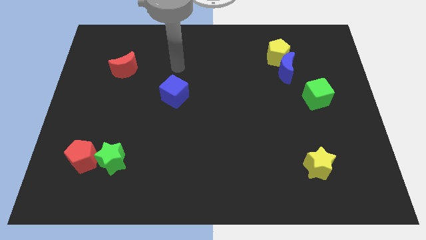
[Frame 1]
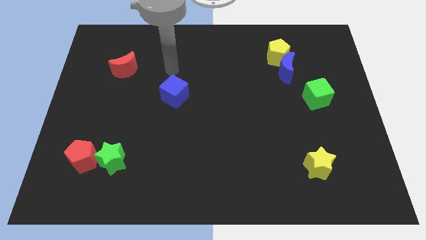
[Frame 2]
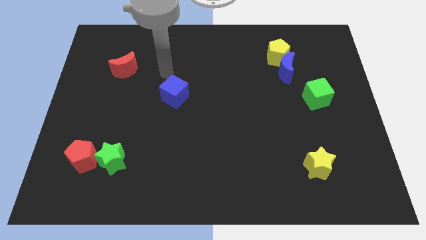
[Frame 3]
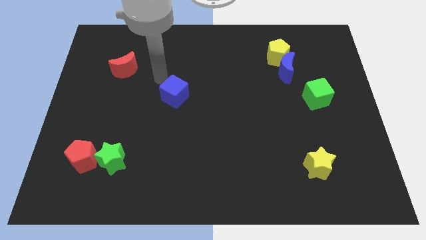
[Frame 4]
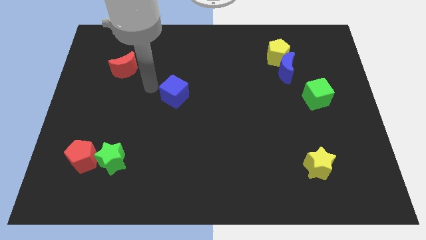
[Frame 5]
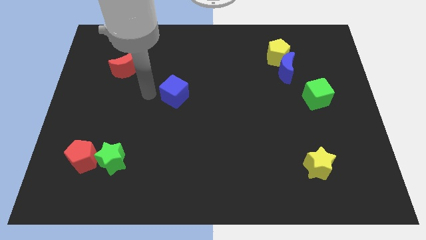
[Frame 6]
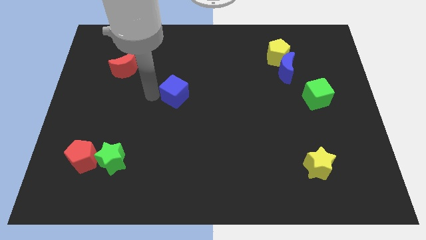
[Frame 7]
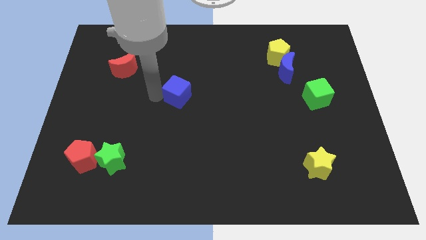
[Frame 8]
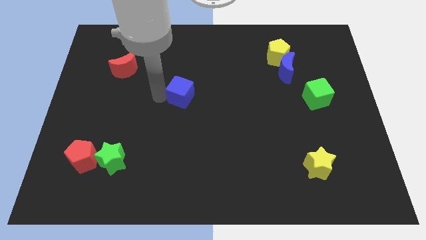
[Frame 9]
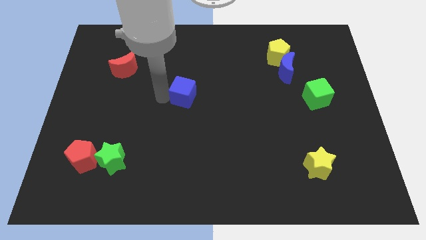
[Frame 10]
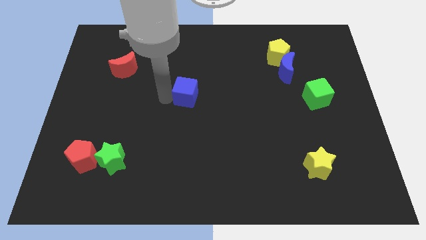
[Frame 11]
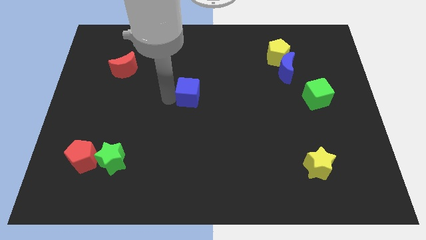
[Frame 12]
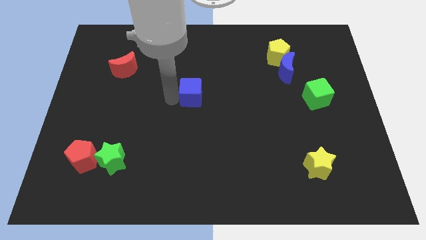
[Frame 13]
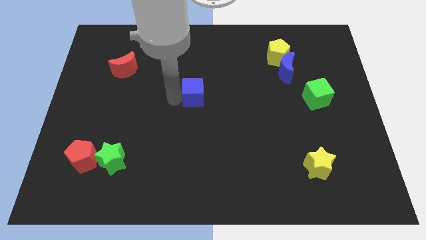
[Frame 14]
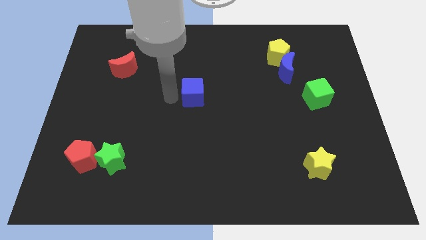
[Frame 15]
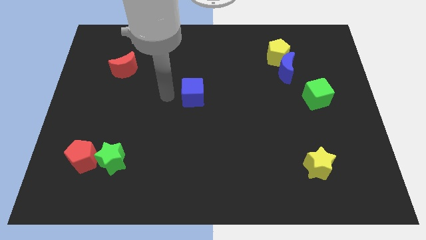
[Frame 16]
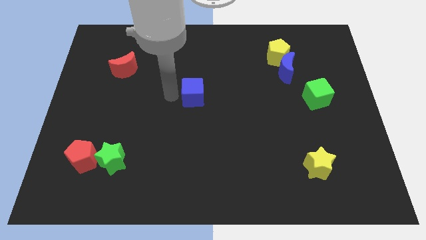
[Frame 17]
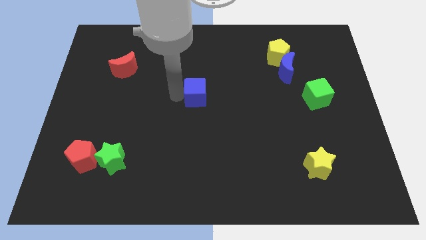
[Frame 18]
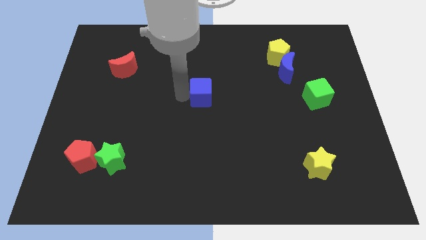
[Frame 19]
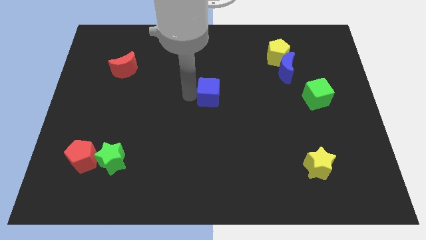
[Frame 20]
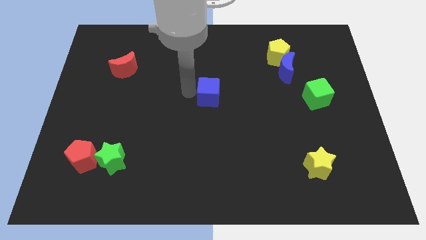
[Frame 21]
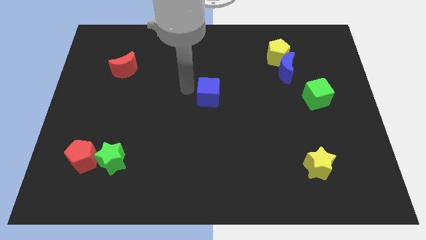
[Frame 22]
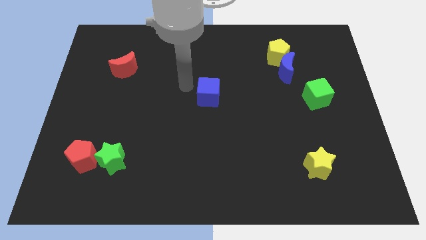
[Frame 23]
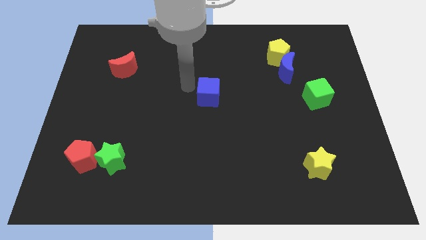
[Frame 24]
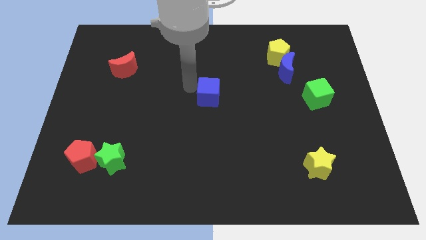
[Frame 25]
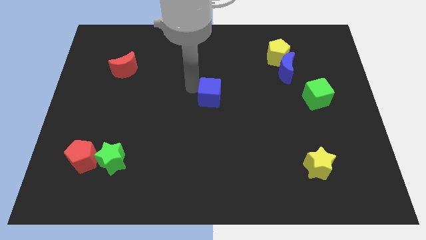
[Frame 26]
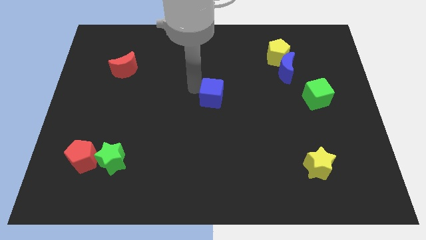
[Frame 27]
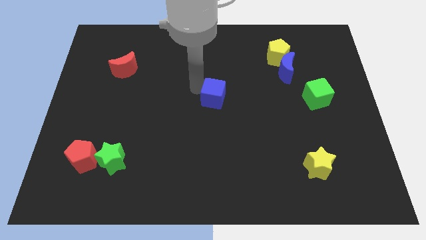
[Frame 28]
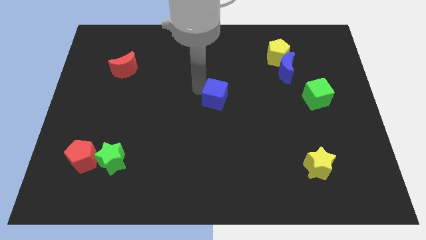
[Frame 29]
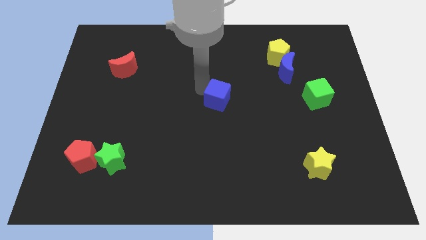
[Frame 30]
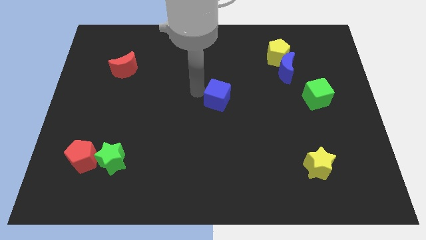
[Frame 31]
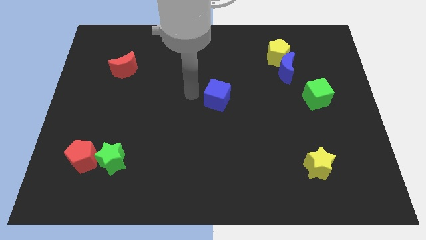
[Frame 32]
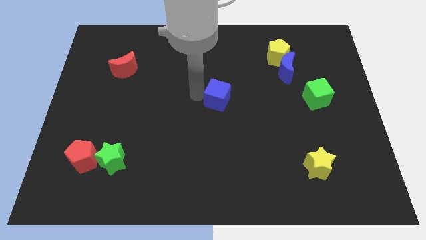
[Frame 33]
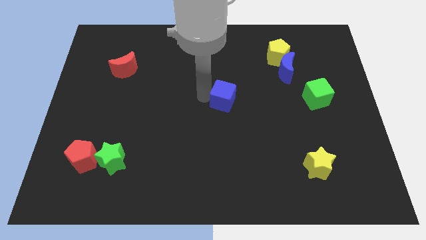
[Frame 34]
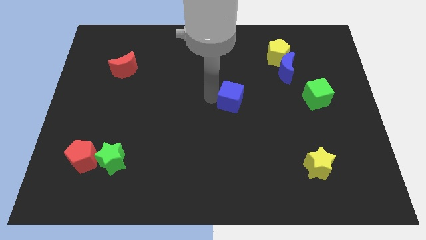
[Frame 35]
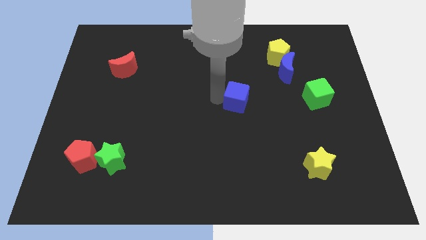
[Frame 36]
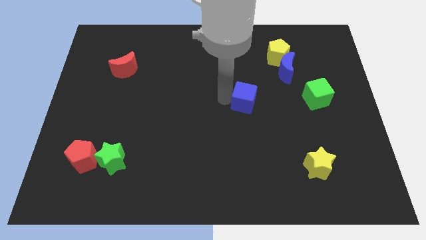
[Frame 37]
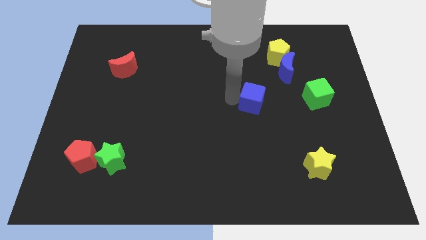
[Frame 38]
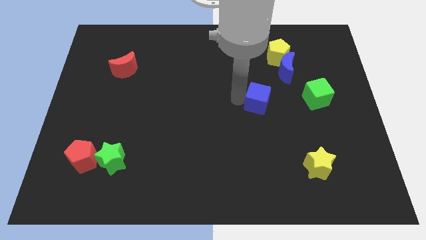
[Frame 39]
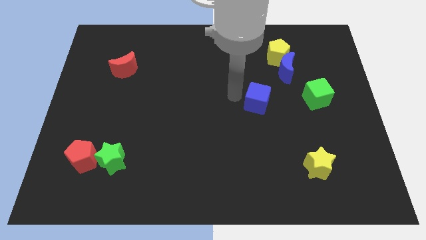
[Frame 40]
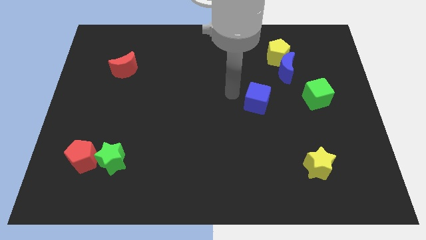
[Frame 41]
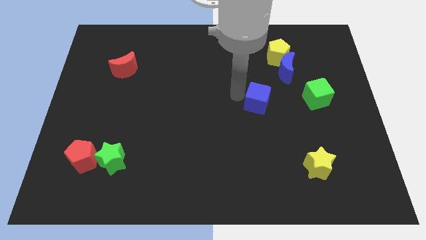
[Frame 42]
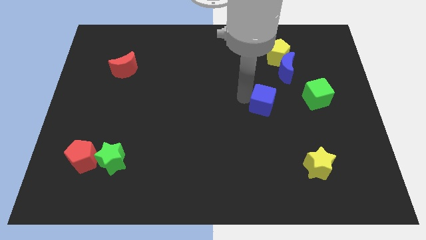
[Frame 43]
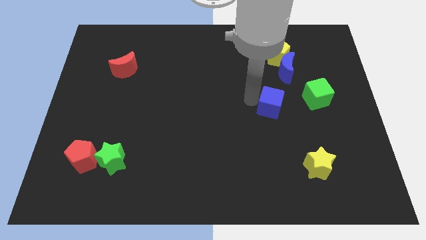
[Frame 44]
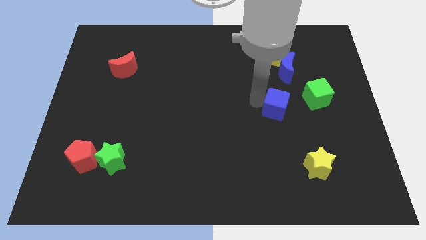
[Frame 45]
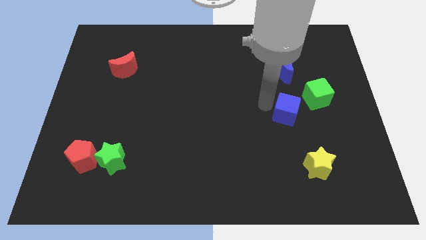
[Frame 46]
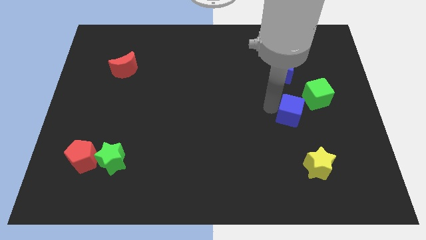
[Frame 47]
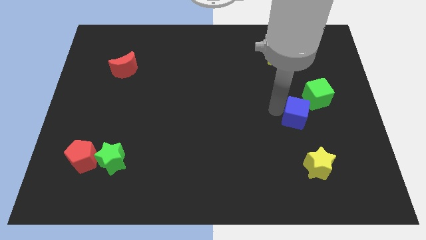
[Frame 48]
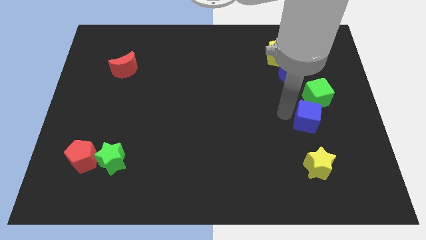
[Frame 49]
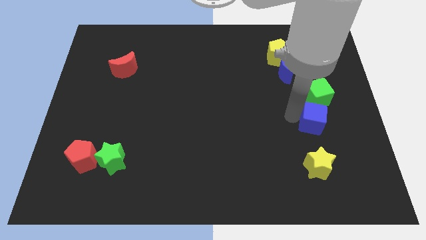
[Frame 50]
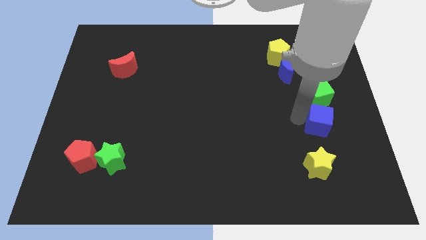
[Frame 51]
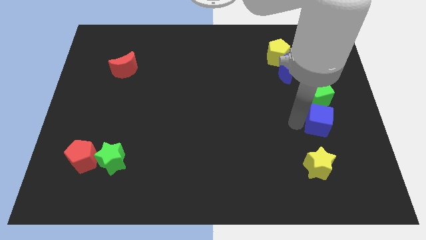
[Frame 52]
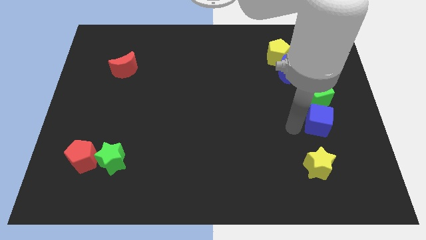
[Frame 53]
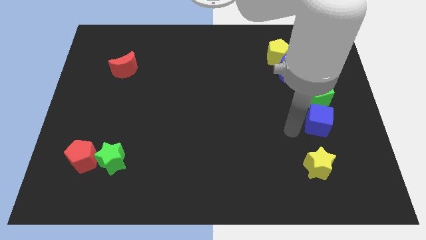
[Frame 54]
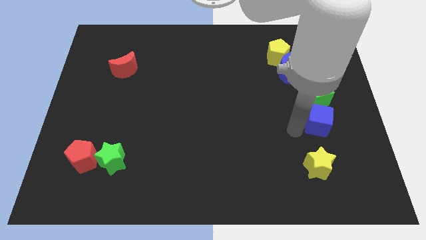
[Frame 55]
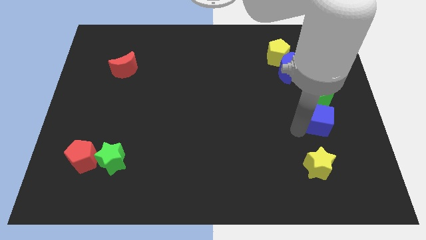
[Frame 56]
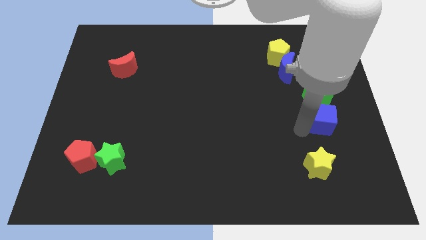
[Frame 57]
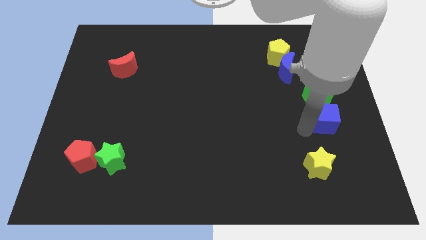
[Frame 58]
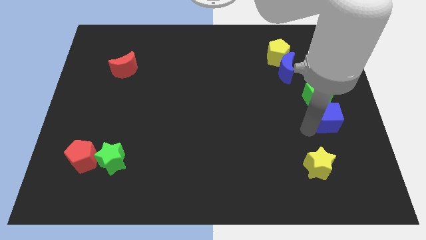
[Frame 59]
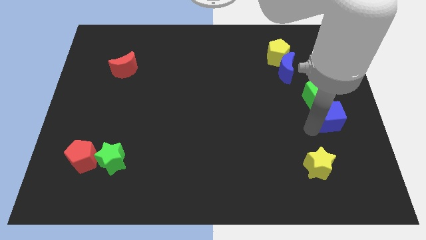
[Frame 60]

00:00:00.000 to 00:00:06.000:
move the blue cube to the right side of the board

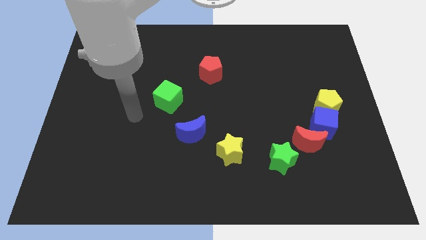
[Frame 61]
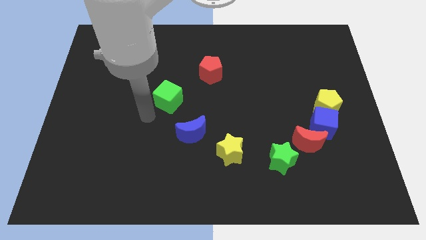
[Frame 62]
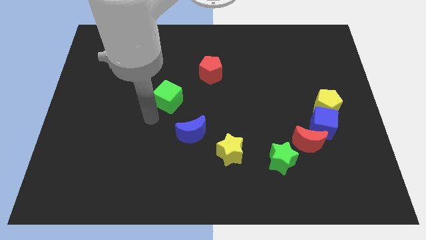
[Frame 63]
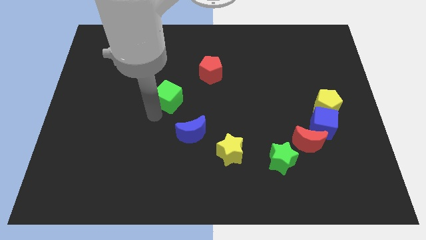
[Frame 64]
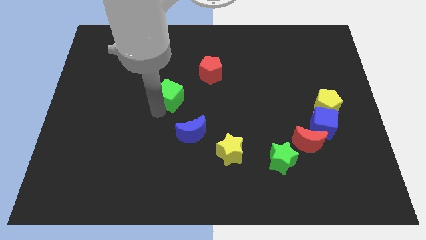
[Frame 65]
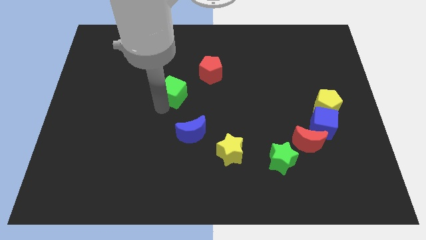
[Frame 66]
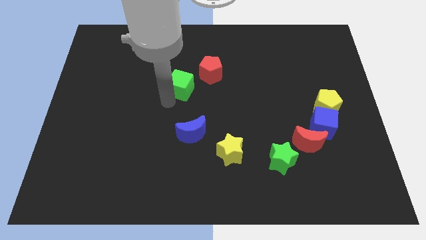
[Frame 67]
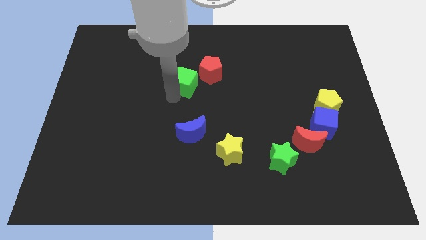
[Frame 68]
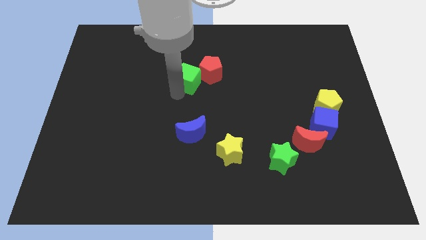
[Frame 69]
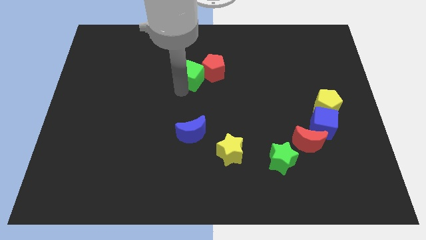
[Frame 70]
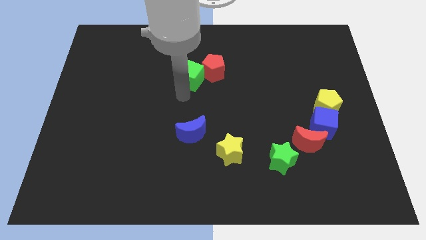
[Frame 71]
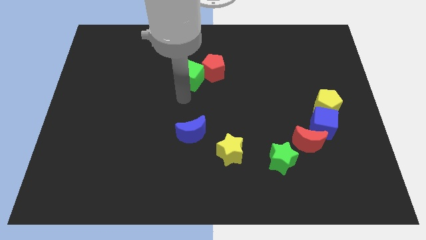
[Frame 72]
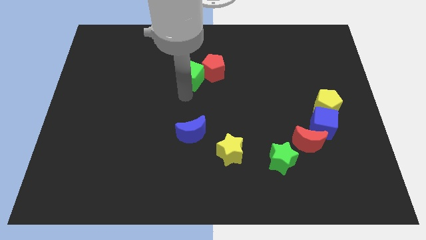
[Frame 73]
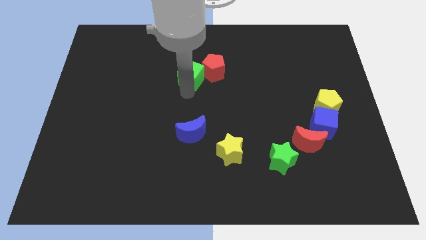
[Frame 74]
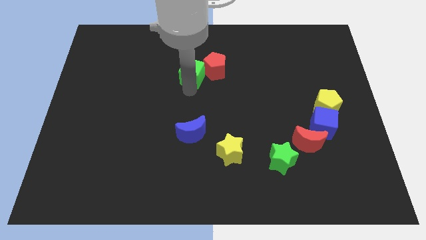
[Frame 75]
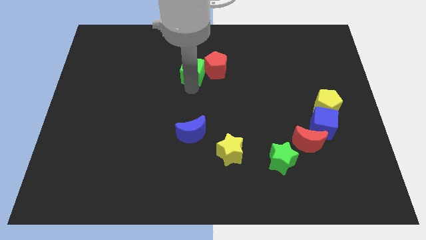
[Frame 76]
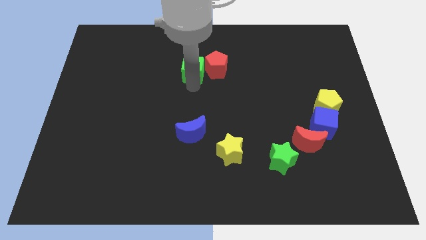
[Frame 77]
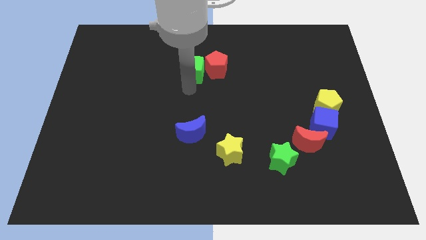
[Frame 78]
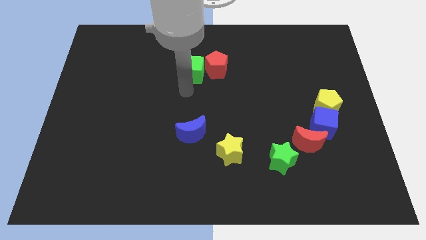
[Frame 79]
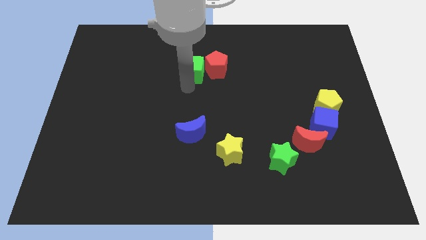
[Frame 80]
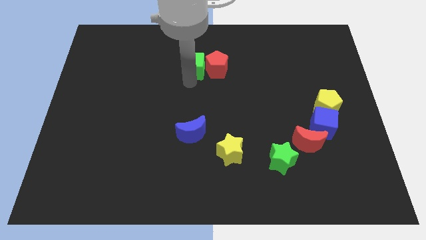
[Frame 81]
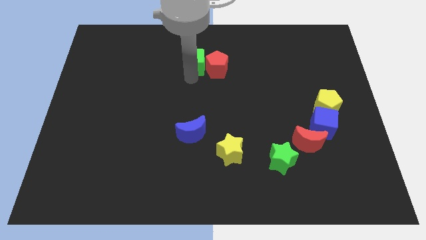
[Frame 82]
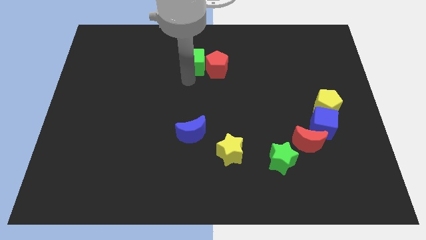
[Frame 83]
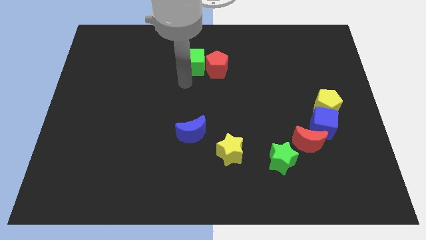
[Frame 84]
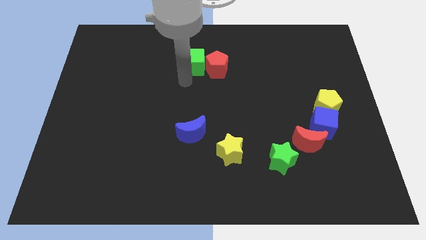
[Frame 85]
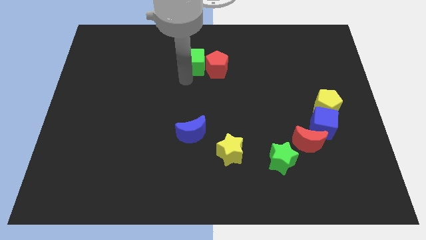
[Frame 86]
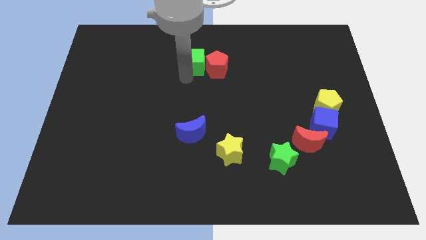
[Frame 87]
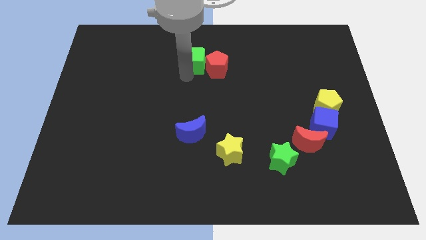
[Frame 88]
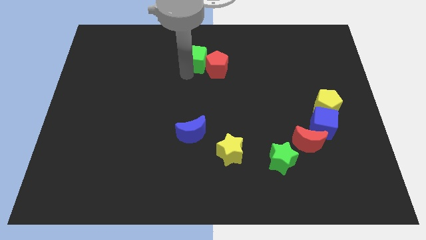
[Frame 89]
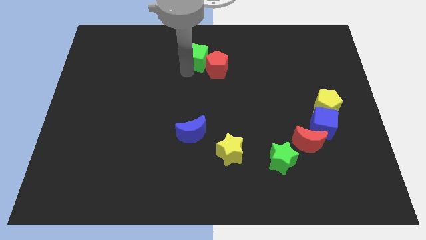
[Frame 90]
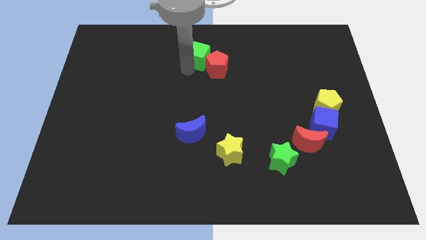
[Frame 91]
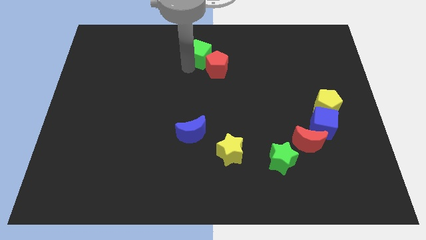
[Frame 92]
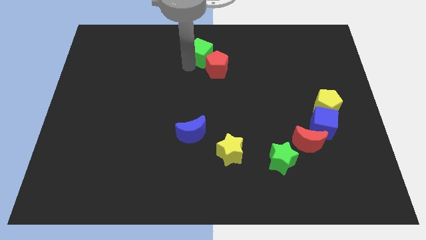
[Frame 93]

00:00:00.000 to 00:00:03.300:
push the green cube to the top
